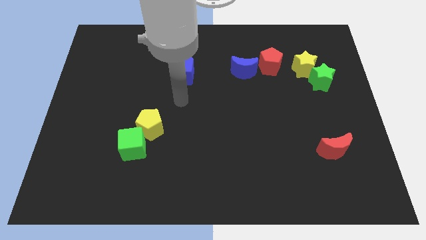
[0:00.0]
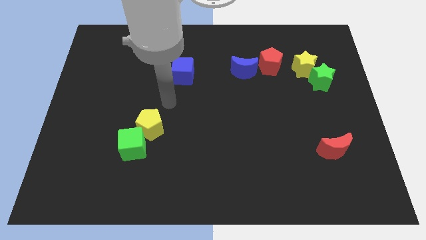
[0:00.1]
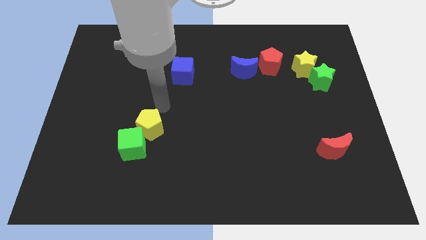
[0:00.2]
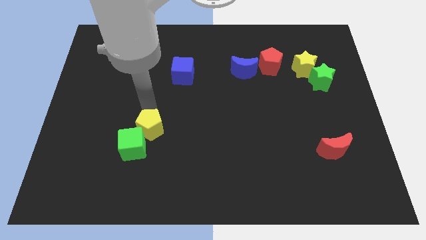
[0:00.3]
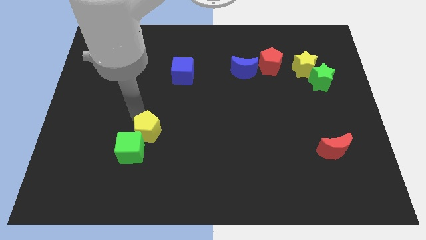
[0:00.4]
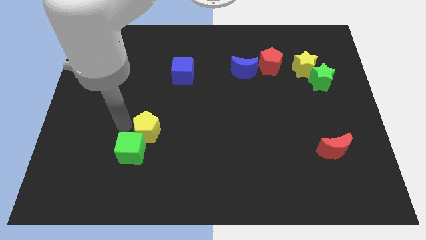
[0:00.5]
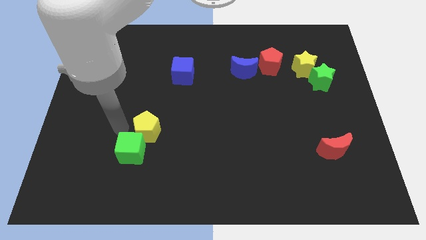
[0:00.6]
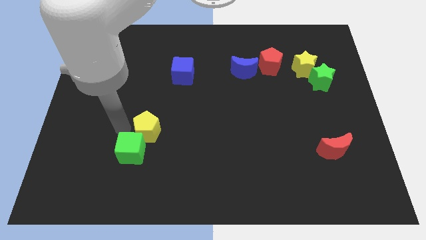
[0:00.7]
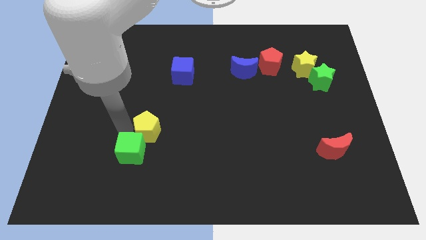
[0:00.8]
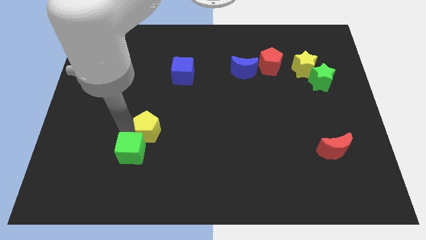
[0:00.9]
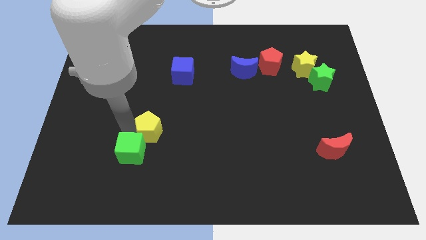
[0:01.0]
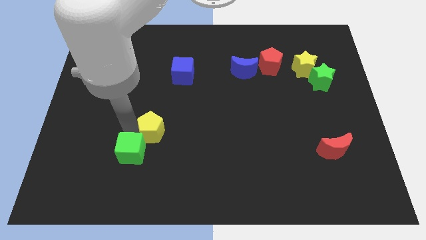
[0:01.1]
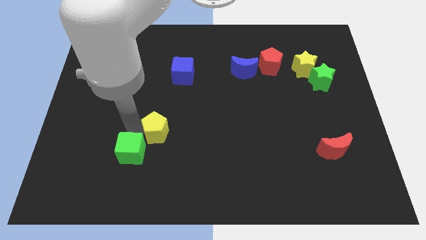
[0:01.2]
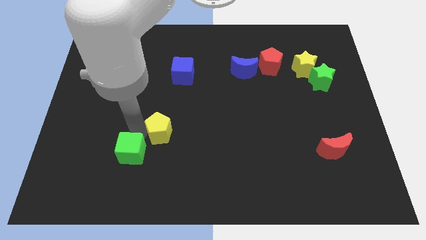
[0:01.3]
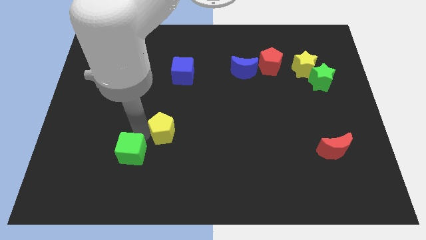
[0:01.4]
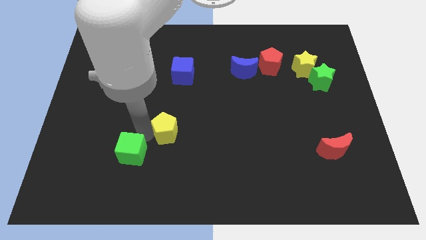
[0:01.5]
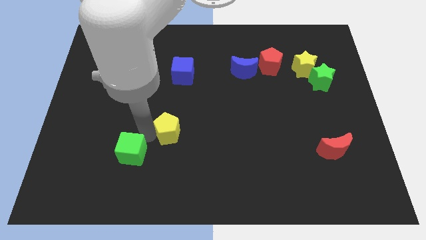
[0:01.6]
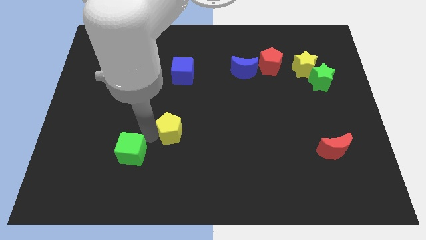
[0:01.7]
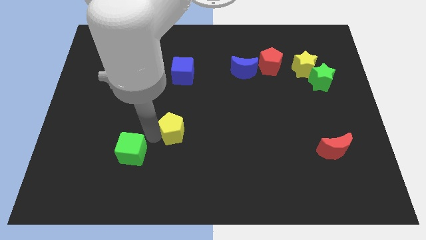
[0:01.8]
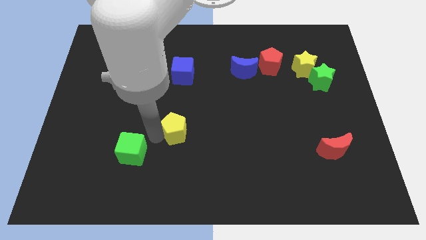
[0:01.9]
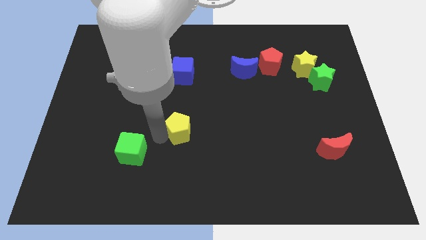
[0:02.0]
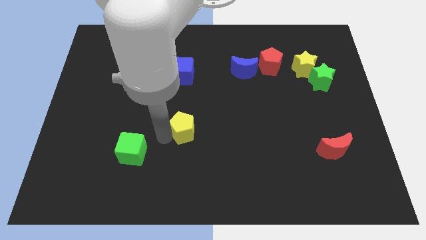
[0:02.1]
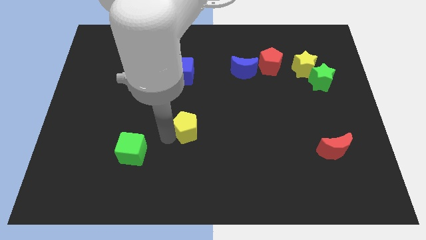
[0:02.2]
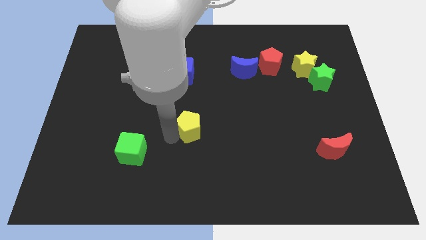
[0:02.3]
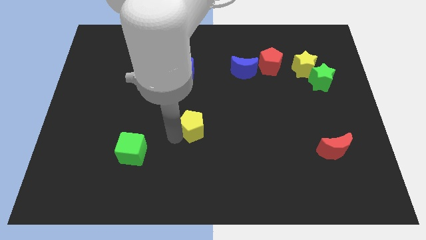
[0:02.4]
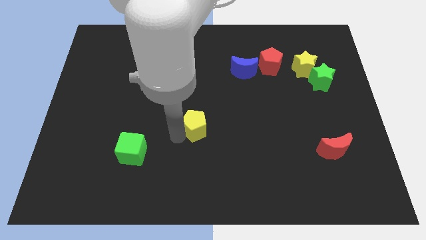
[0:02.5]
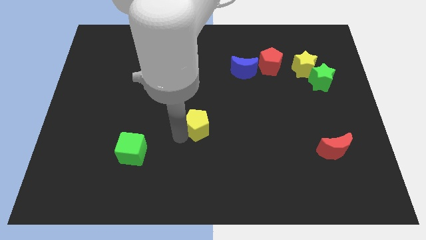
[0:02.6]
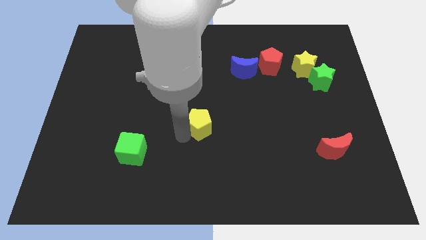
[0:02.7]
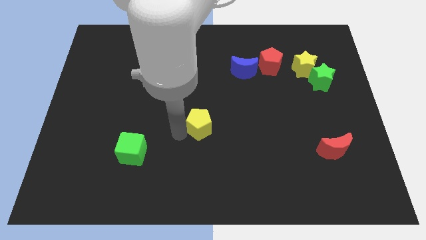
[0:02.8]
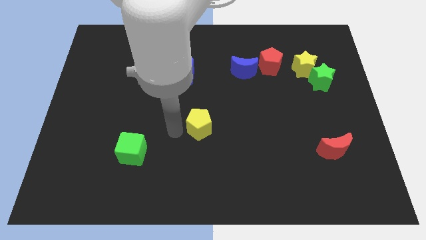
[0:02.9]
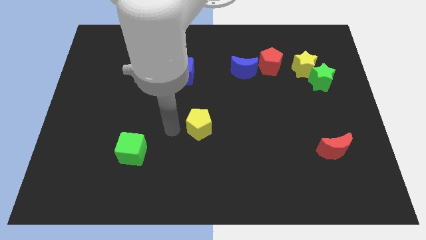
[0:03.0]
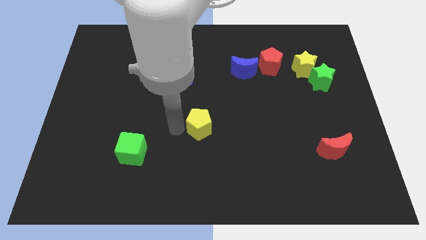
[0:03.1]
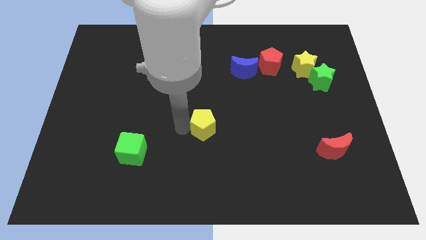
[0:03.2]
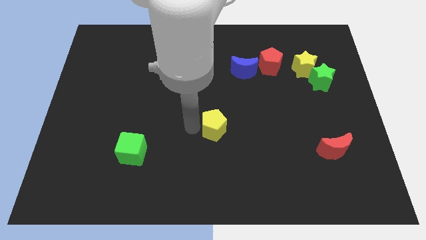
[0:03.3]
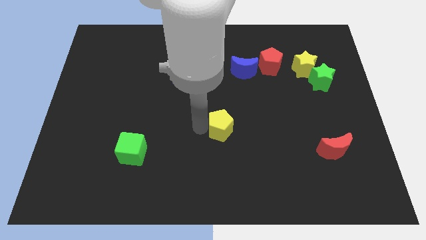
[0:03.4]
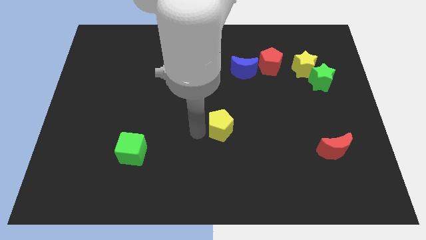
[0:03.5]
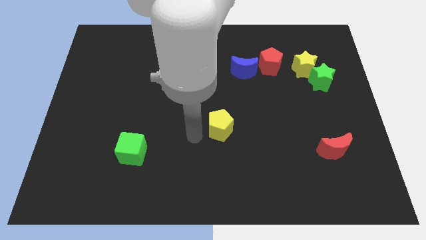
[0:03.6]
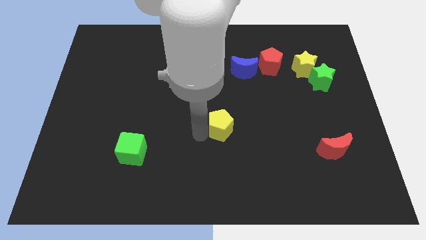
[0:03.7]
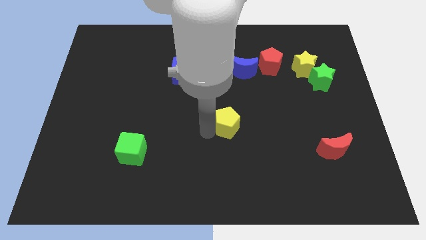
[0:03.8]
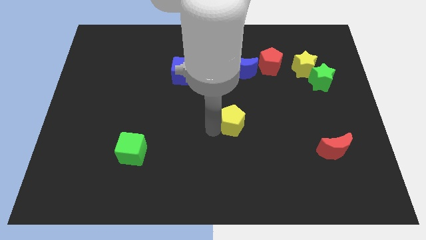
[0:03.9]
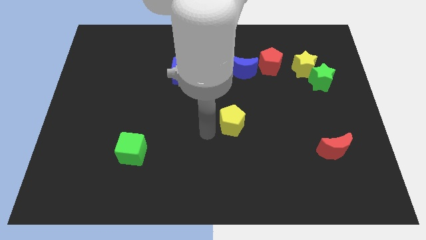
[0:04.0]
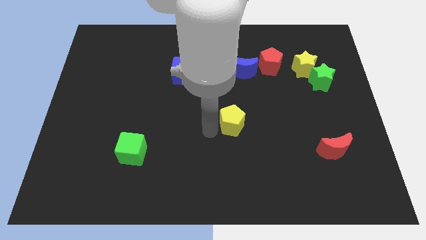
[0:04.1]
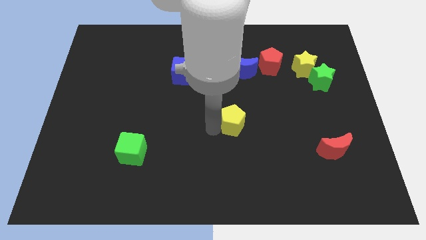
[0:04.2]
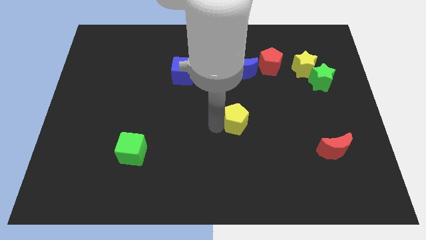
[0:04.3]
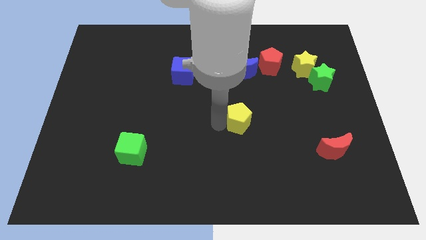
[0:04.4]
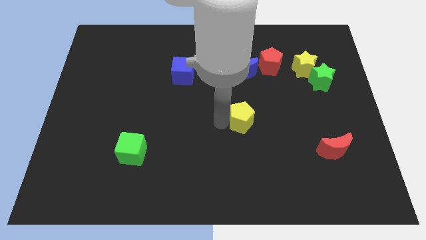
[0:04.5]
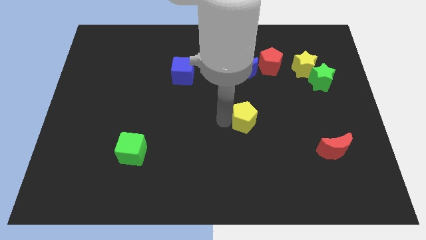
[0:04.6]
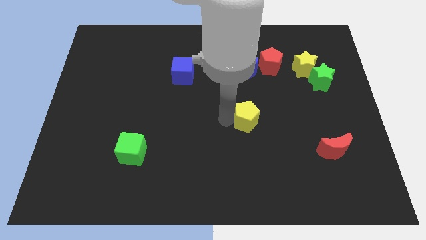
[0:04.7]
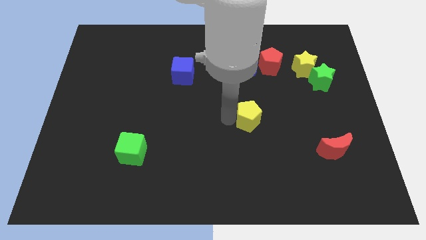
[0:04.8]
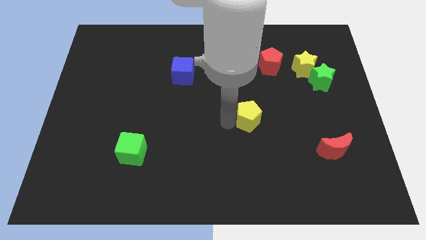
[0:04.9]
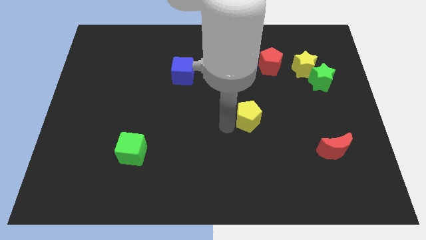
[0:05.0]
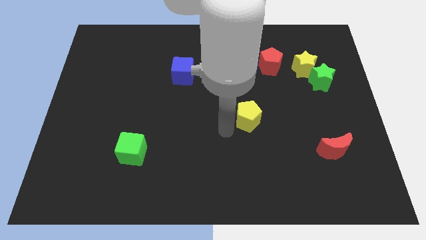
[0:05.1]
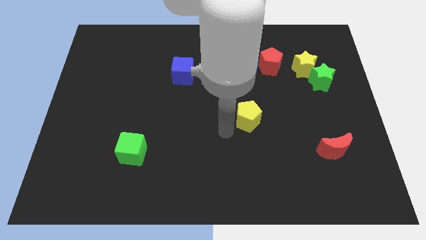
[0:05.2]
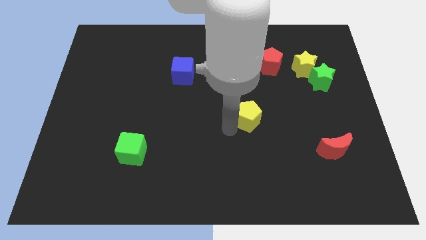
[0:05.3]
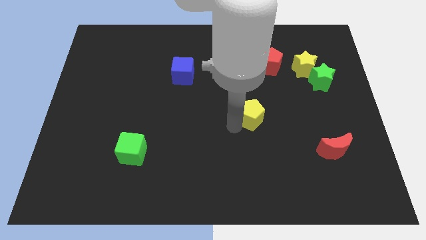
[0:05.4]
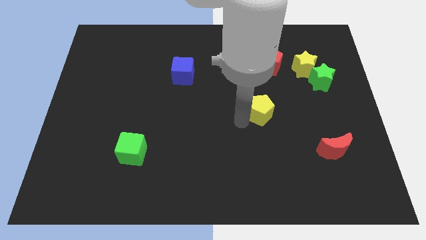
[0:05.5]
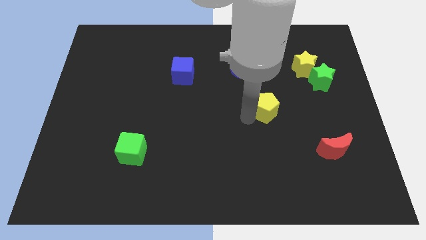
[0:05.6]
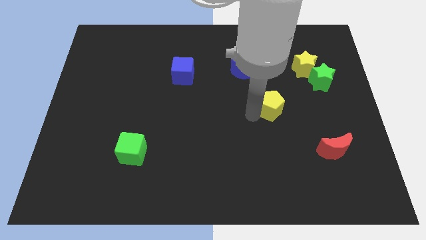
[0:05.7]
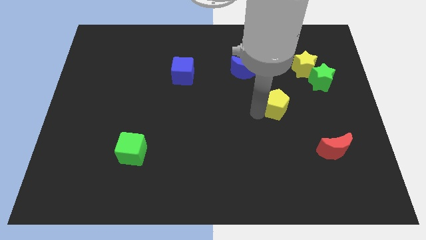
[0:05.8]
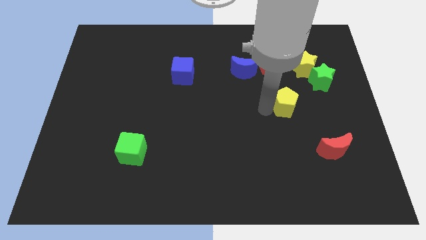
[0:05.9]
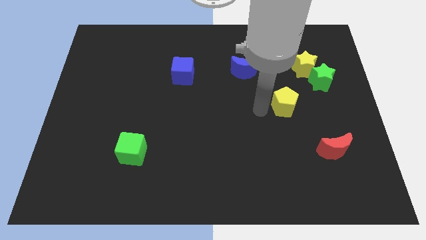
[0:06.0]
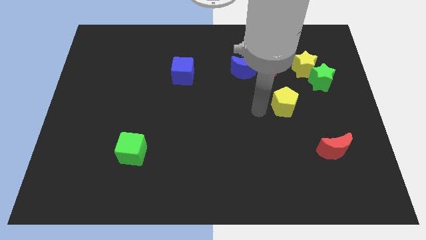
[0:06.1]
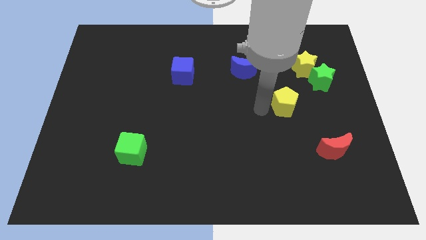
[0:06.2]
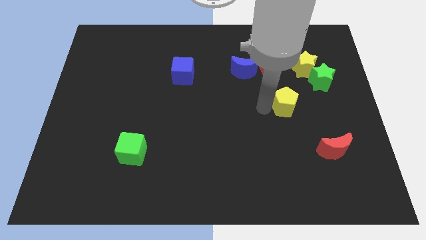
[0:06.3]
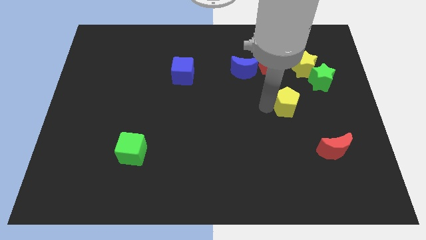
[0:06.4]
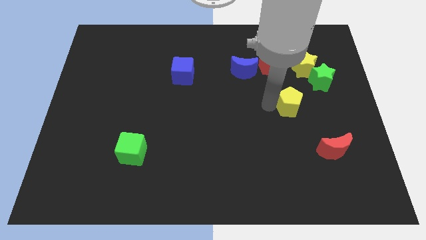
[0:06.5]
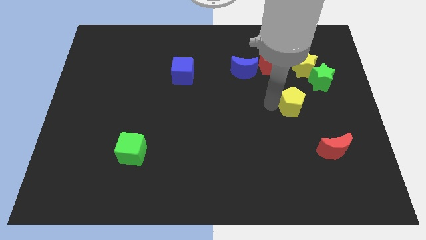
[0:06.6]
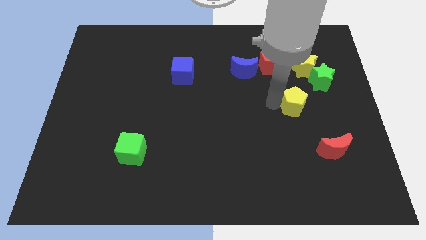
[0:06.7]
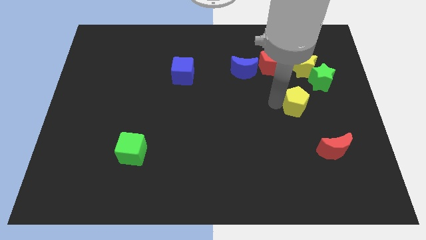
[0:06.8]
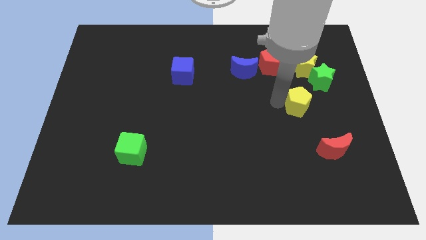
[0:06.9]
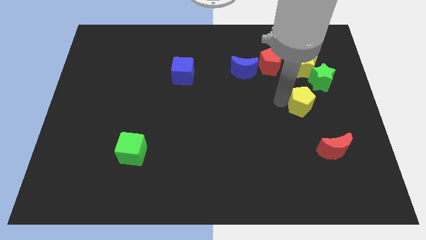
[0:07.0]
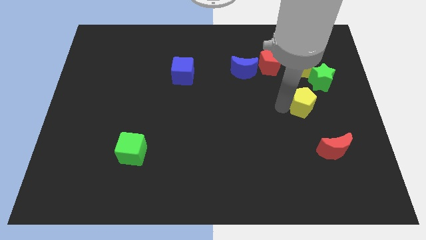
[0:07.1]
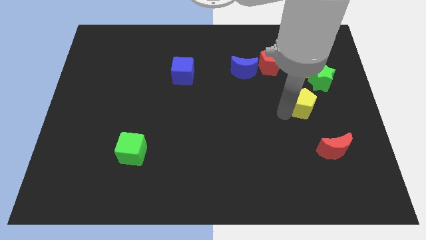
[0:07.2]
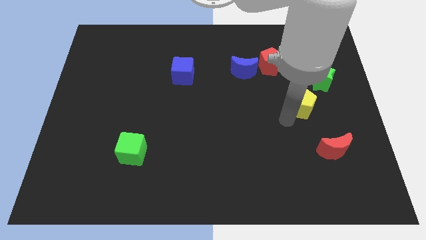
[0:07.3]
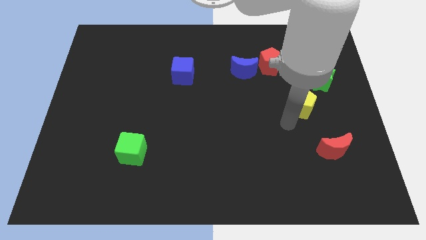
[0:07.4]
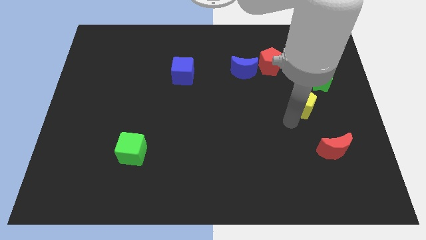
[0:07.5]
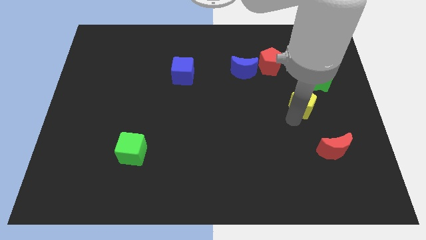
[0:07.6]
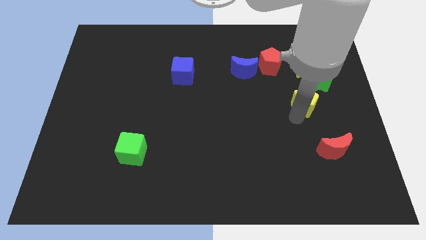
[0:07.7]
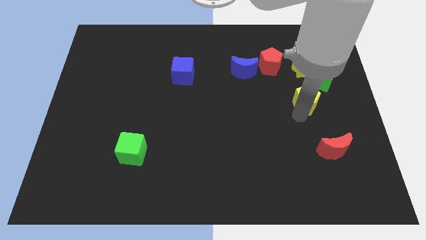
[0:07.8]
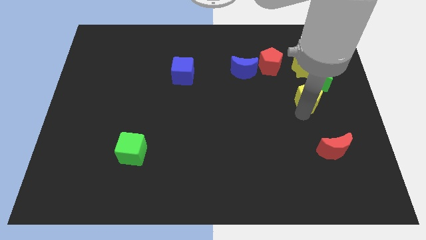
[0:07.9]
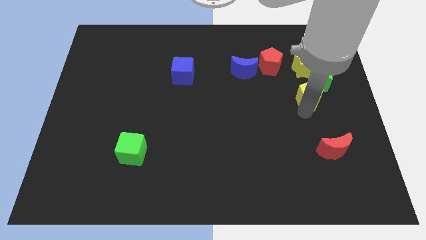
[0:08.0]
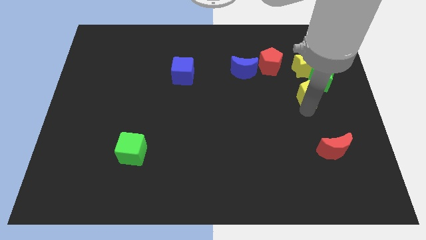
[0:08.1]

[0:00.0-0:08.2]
put the yellow pentagon close to the green star
